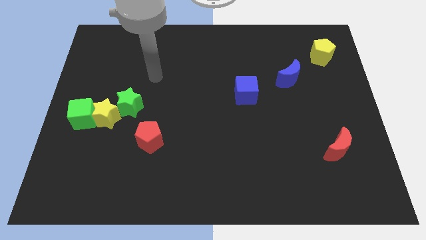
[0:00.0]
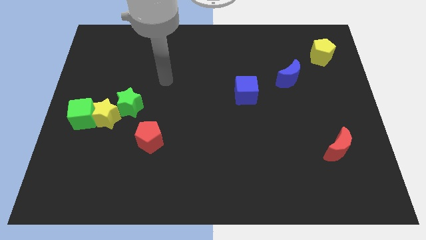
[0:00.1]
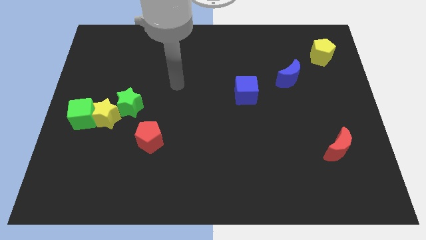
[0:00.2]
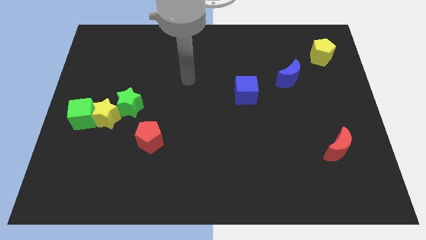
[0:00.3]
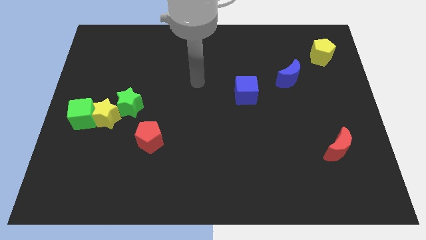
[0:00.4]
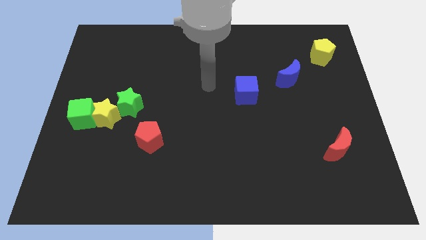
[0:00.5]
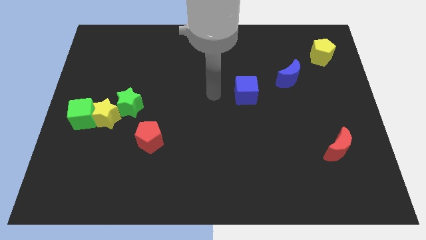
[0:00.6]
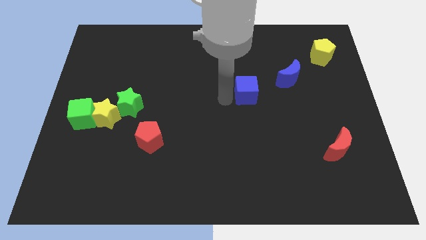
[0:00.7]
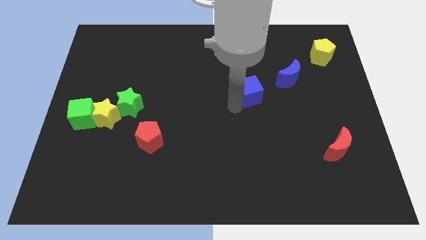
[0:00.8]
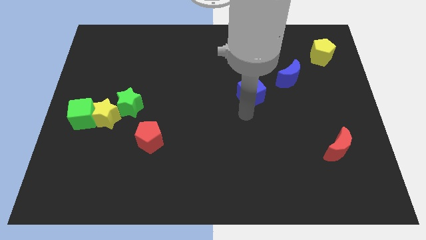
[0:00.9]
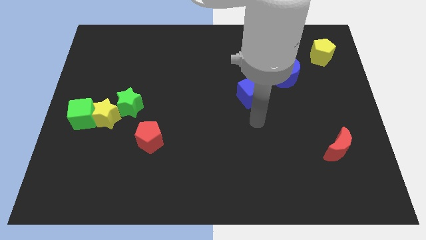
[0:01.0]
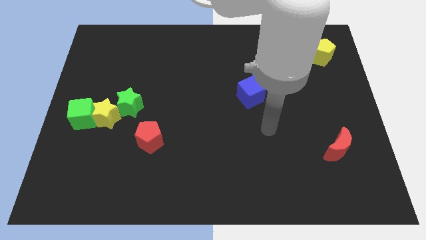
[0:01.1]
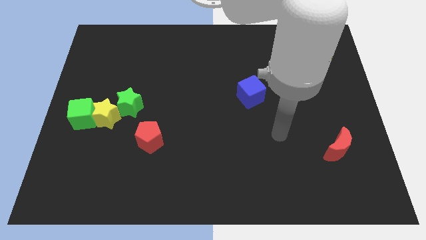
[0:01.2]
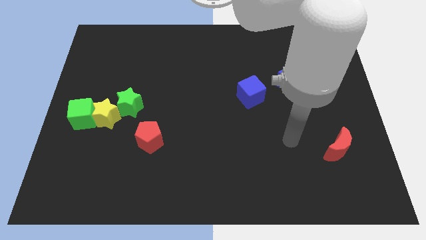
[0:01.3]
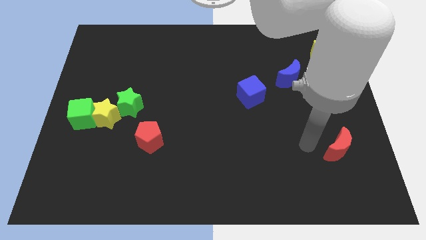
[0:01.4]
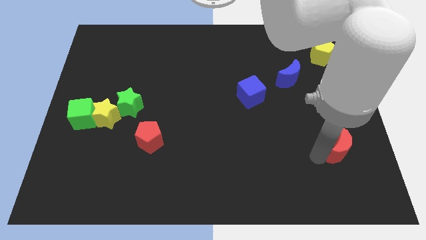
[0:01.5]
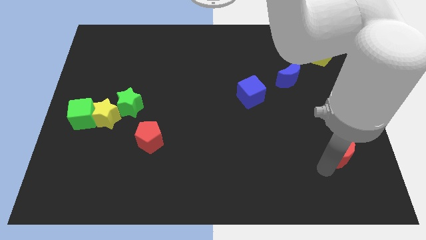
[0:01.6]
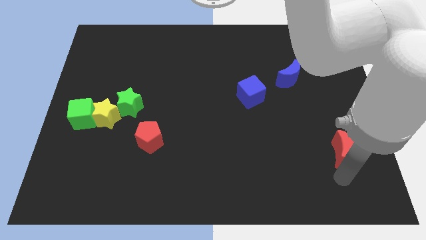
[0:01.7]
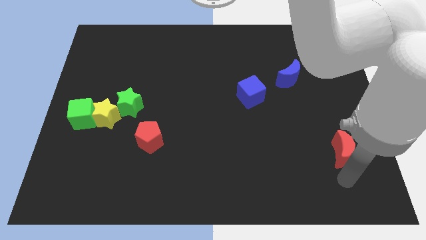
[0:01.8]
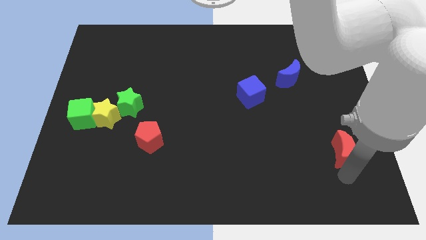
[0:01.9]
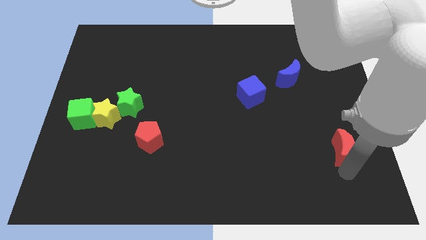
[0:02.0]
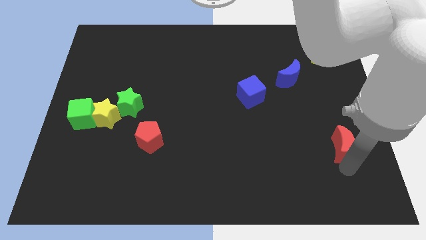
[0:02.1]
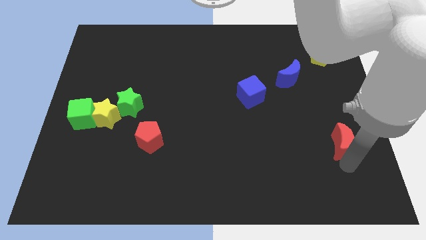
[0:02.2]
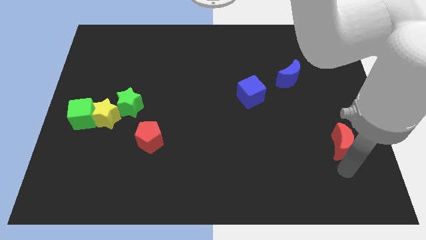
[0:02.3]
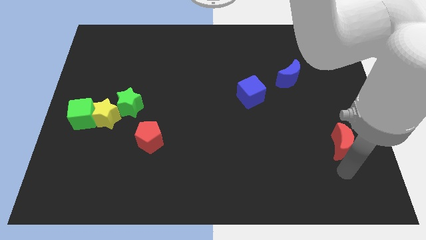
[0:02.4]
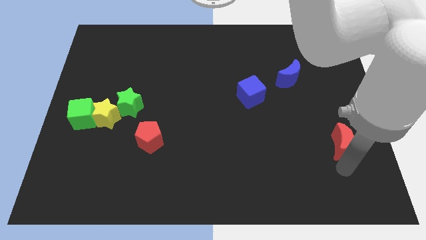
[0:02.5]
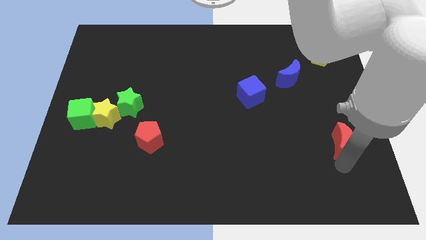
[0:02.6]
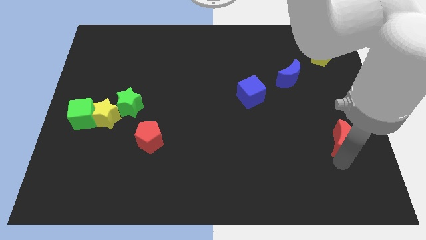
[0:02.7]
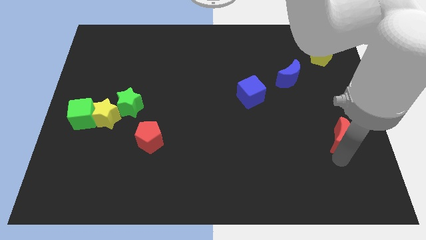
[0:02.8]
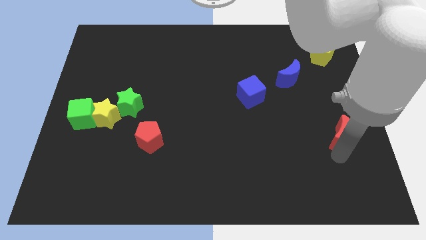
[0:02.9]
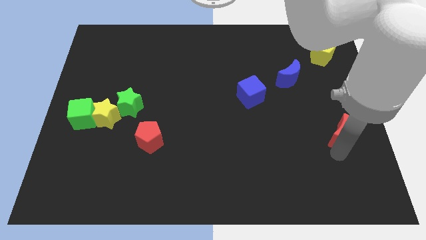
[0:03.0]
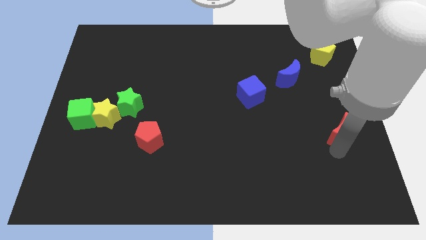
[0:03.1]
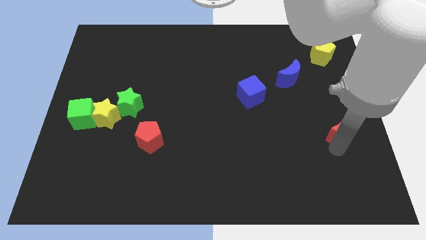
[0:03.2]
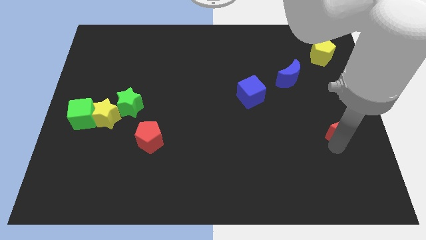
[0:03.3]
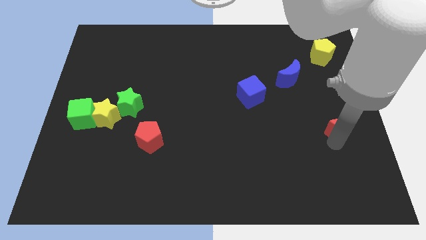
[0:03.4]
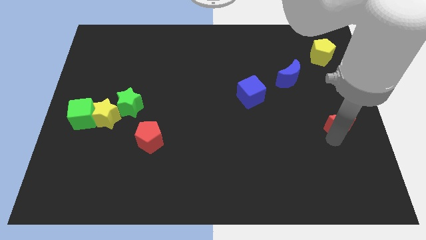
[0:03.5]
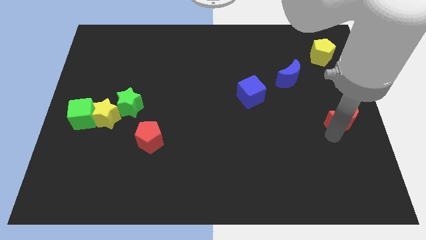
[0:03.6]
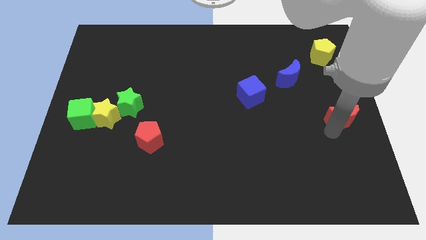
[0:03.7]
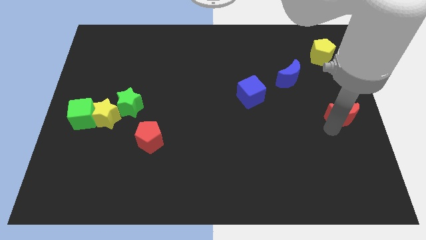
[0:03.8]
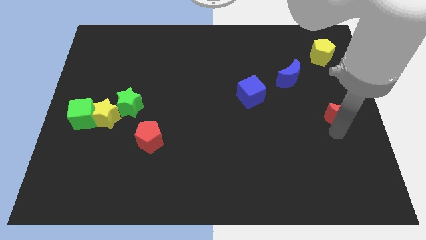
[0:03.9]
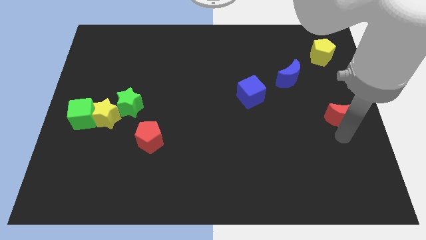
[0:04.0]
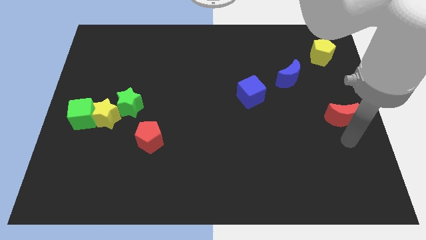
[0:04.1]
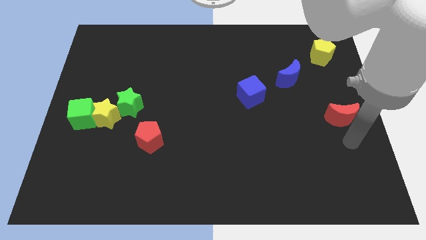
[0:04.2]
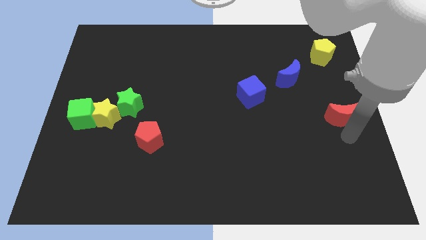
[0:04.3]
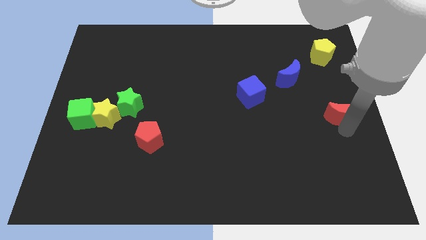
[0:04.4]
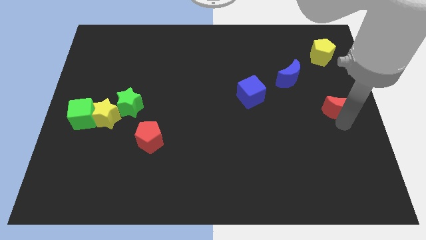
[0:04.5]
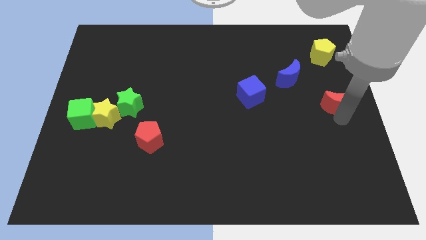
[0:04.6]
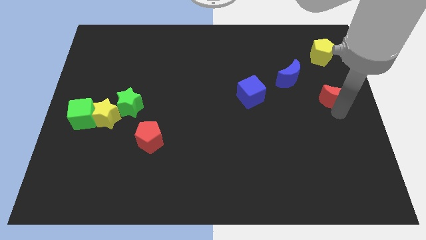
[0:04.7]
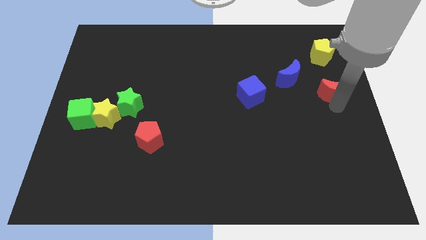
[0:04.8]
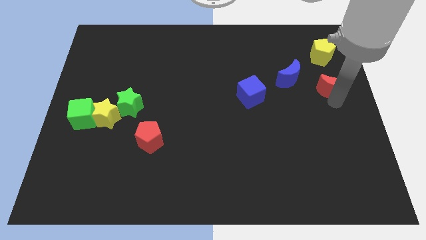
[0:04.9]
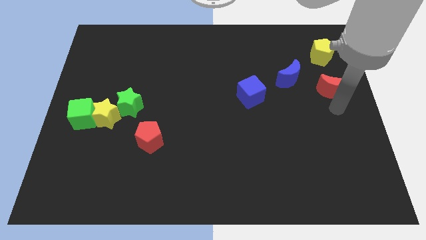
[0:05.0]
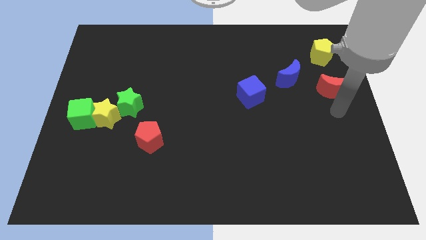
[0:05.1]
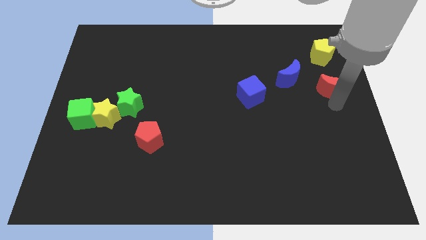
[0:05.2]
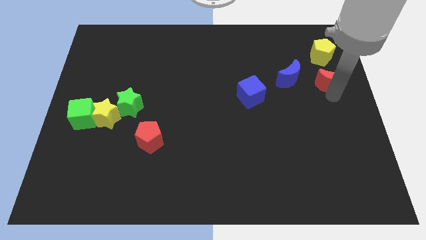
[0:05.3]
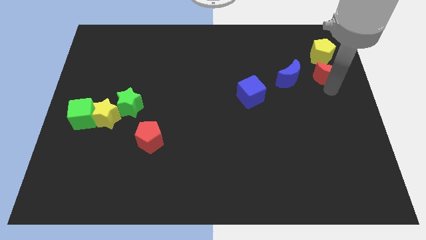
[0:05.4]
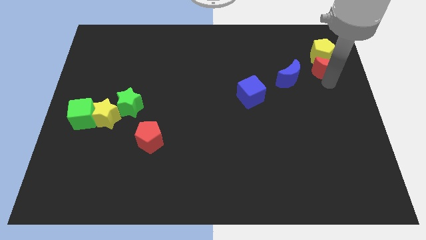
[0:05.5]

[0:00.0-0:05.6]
move the red moon towards the yellow pentagon

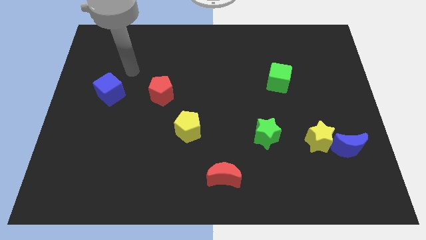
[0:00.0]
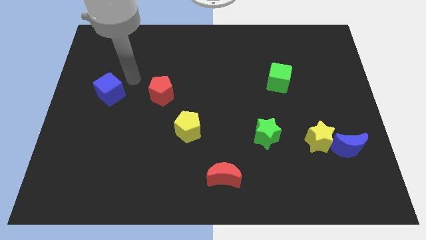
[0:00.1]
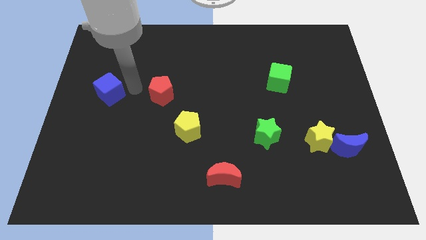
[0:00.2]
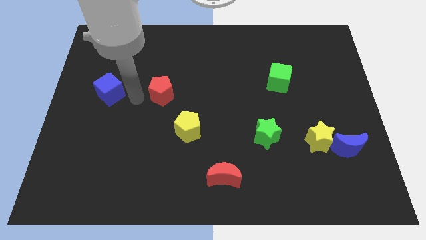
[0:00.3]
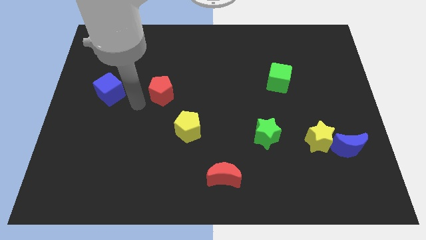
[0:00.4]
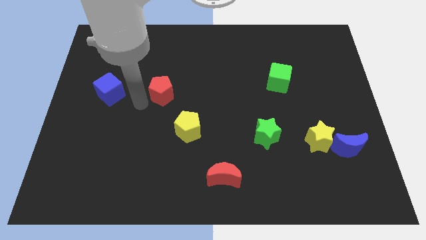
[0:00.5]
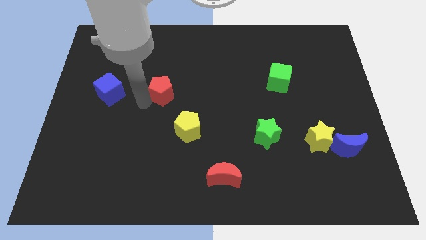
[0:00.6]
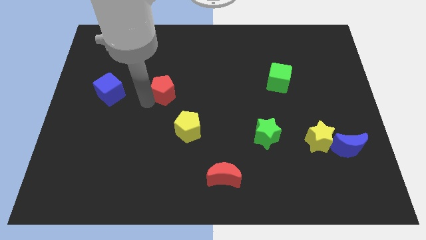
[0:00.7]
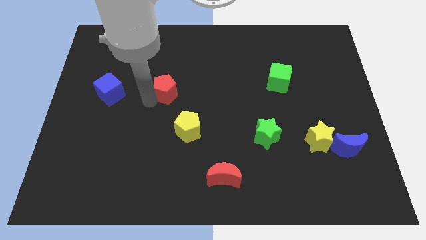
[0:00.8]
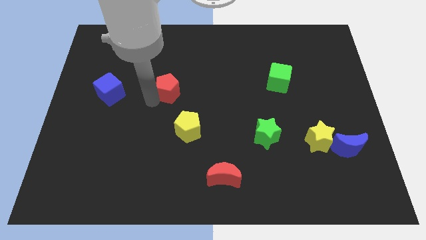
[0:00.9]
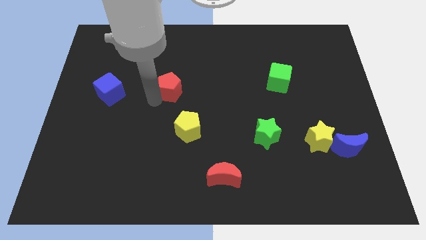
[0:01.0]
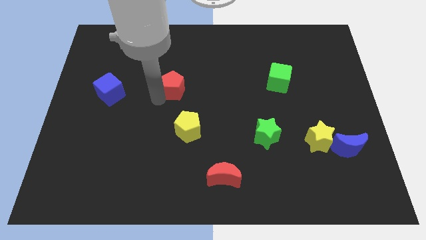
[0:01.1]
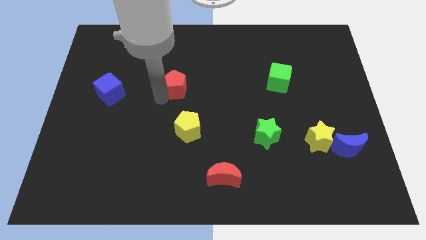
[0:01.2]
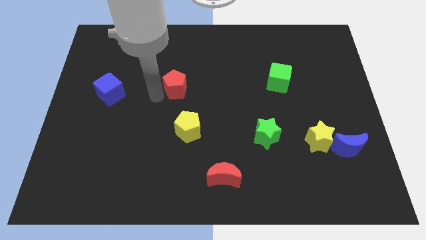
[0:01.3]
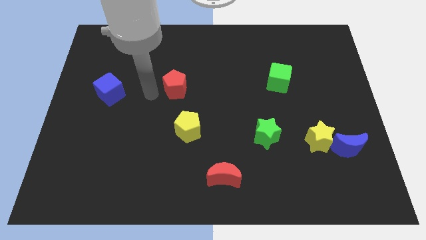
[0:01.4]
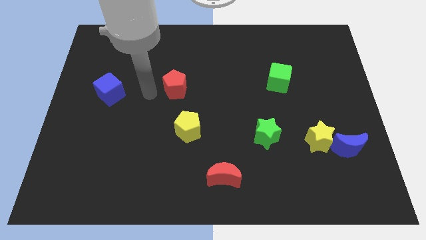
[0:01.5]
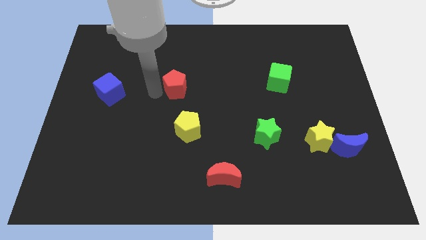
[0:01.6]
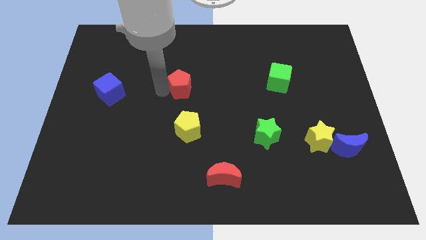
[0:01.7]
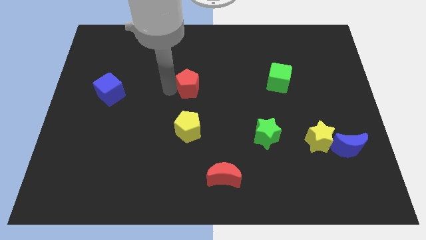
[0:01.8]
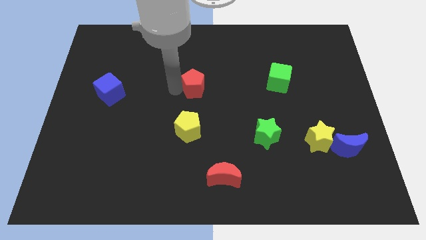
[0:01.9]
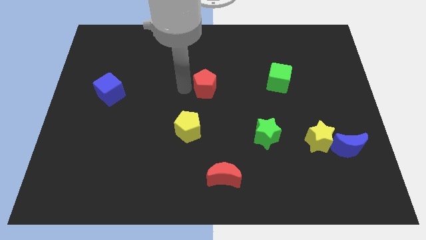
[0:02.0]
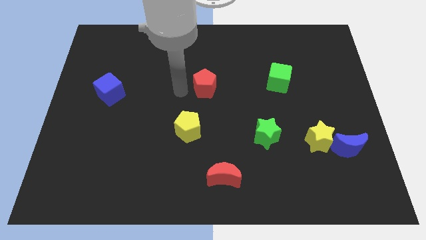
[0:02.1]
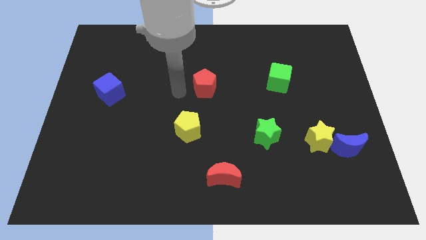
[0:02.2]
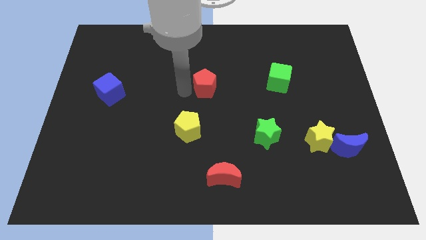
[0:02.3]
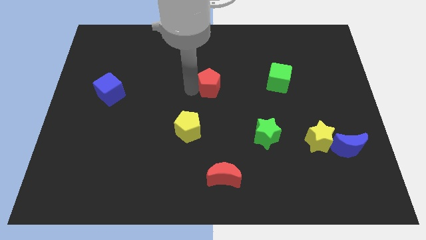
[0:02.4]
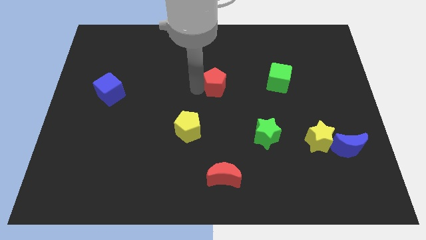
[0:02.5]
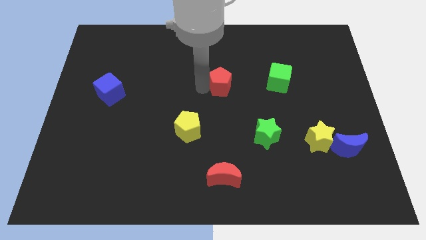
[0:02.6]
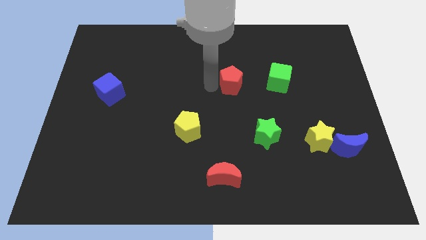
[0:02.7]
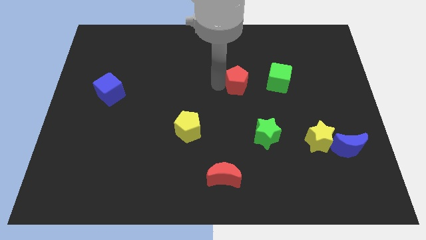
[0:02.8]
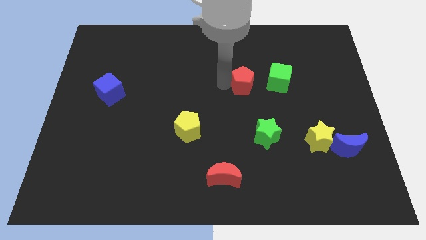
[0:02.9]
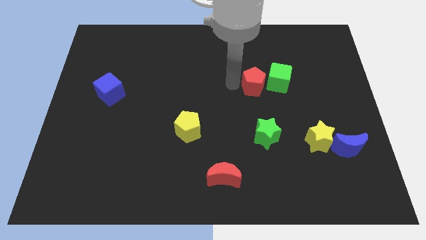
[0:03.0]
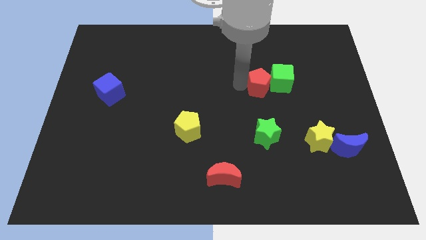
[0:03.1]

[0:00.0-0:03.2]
slide the red pentagon towards the green cube
